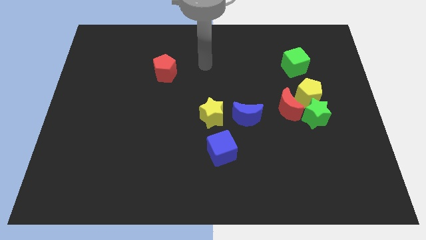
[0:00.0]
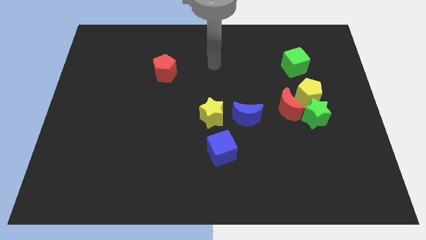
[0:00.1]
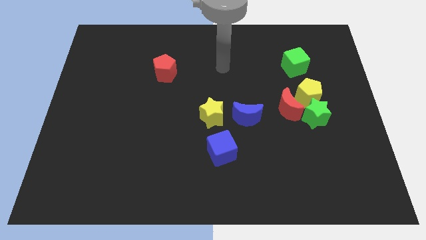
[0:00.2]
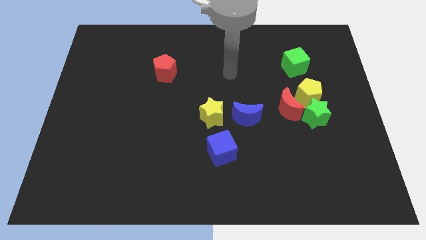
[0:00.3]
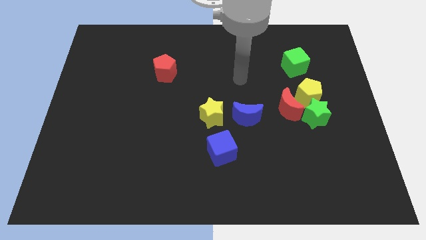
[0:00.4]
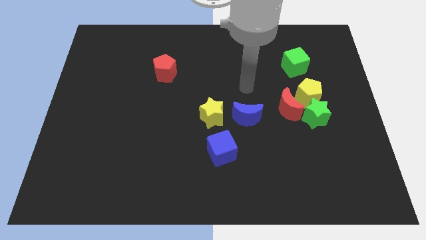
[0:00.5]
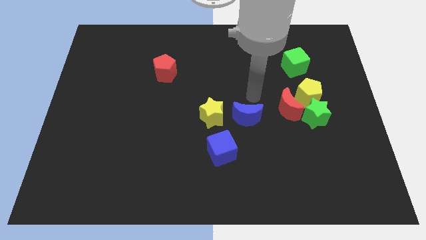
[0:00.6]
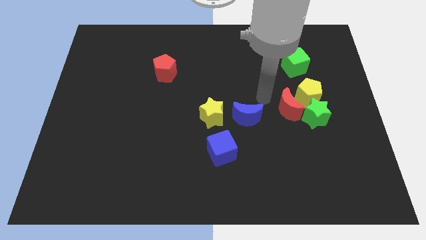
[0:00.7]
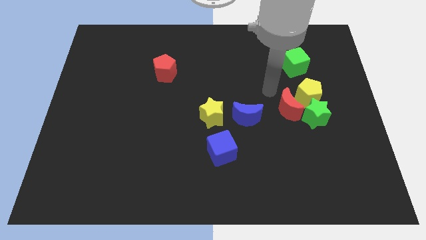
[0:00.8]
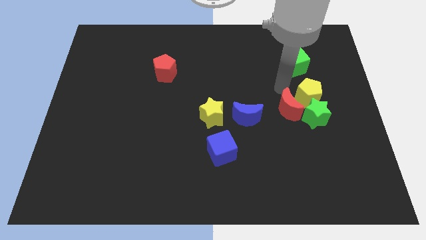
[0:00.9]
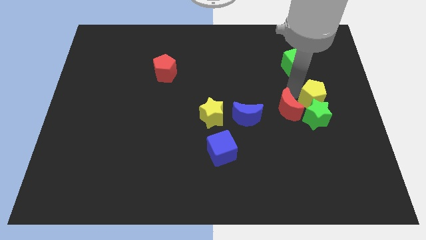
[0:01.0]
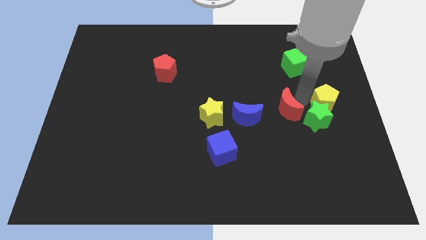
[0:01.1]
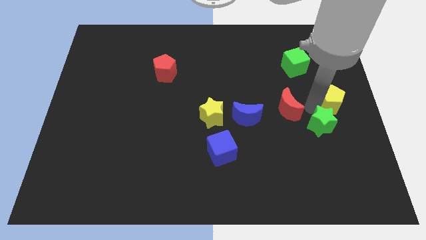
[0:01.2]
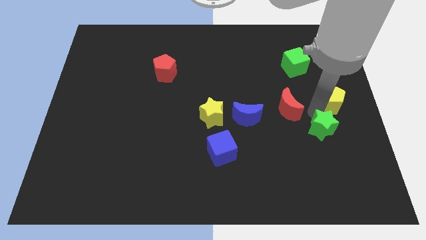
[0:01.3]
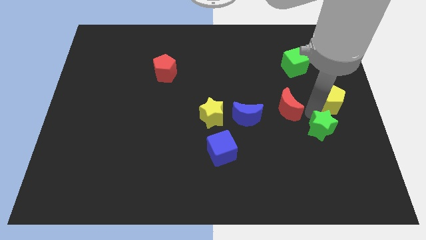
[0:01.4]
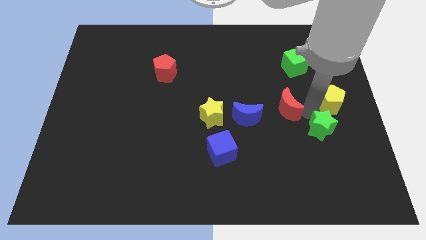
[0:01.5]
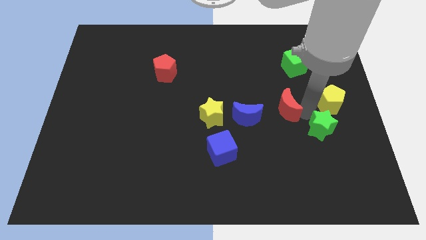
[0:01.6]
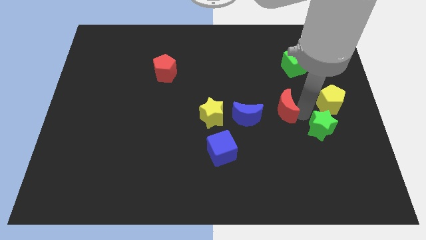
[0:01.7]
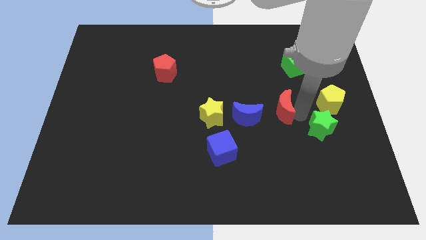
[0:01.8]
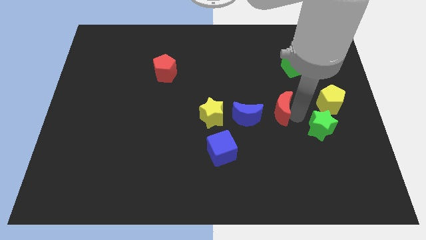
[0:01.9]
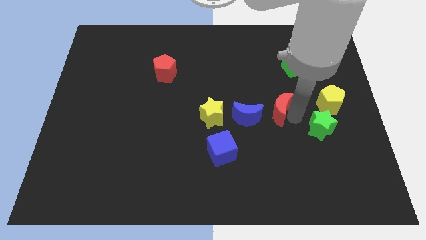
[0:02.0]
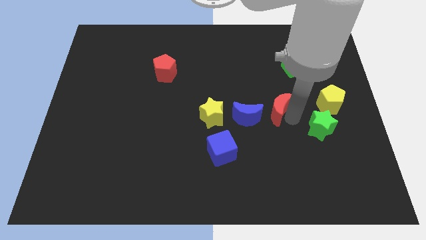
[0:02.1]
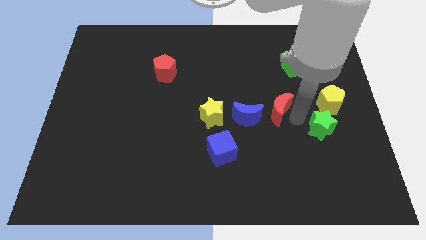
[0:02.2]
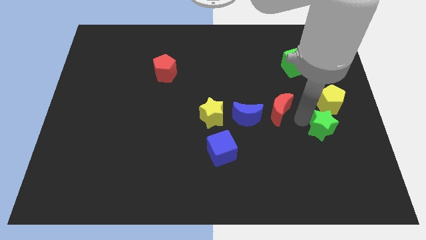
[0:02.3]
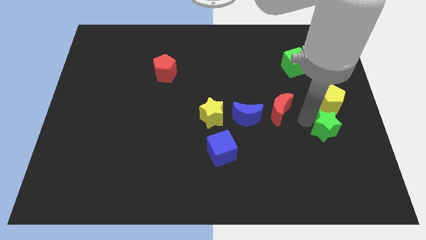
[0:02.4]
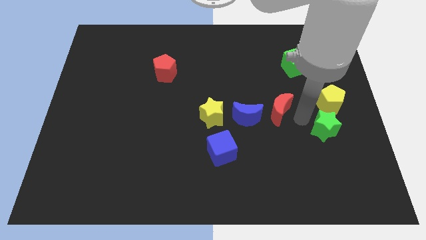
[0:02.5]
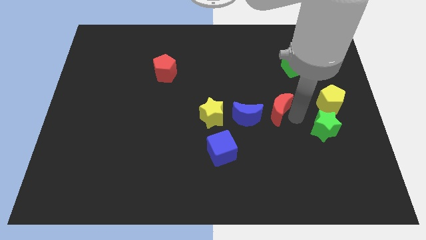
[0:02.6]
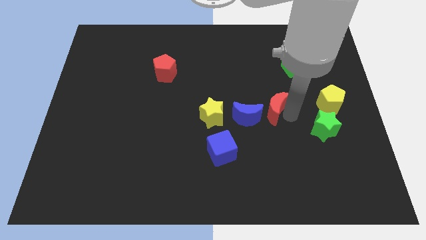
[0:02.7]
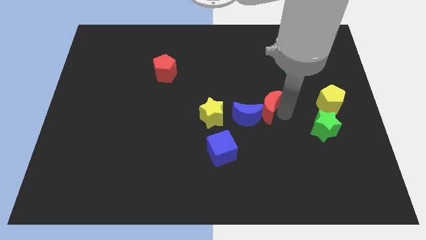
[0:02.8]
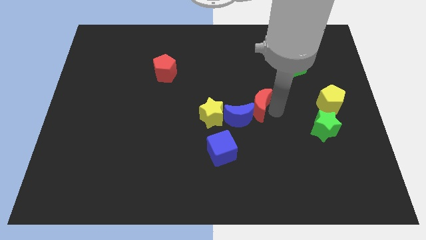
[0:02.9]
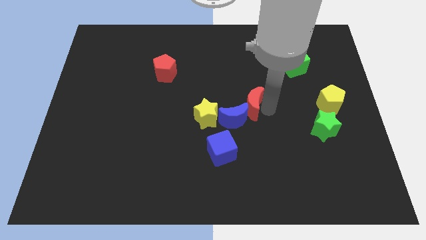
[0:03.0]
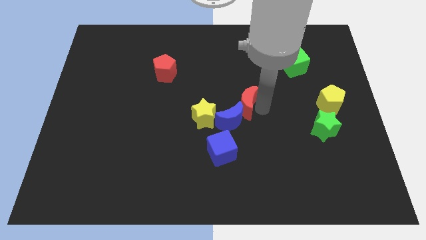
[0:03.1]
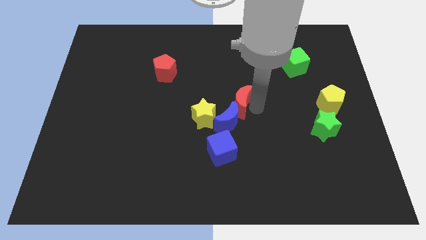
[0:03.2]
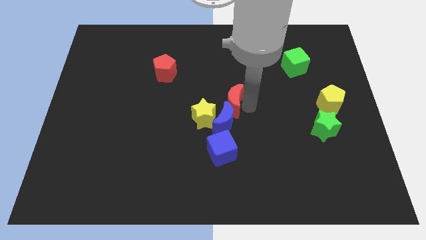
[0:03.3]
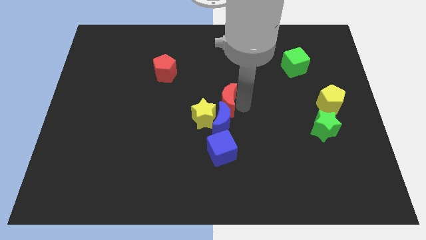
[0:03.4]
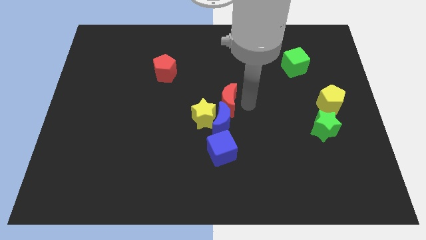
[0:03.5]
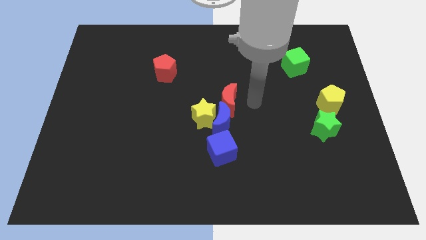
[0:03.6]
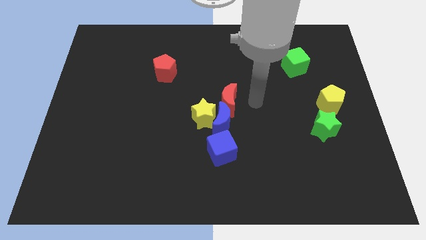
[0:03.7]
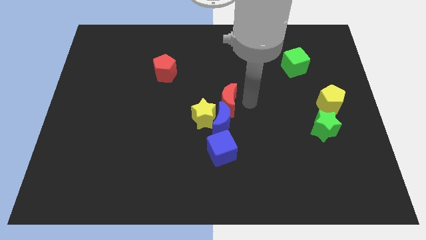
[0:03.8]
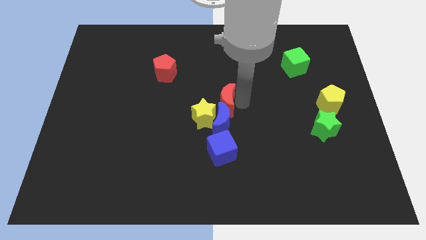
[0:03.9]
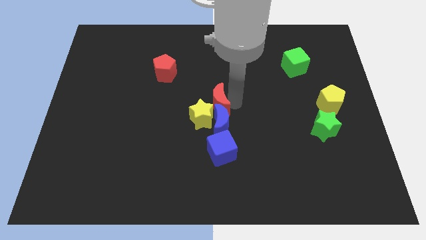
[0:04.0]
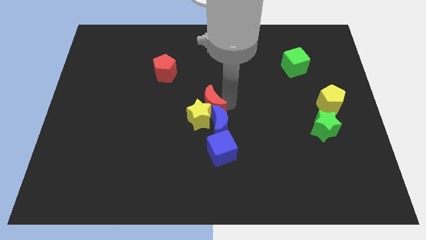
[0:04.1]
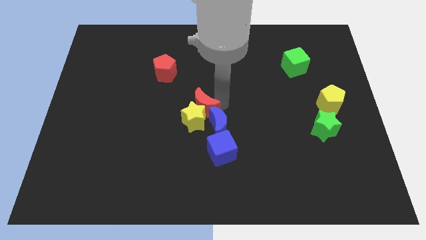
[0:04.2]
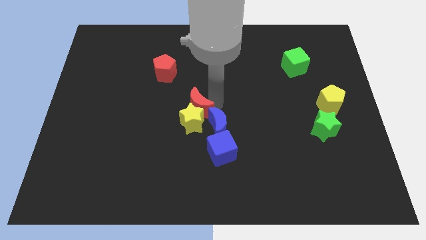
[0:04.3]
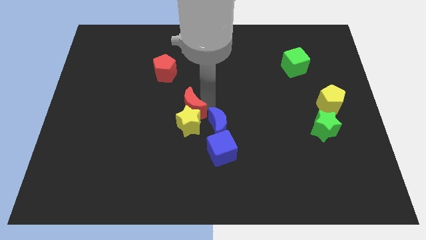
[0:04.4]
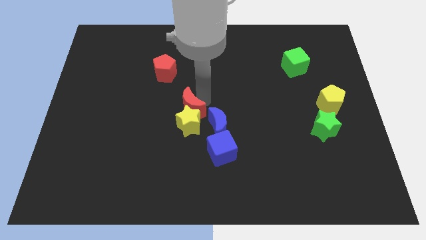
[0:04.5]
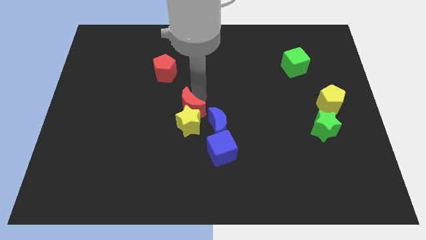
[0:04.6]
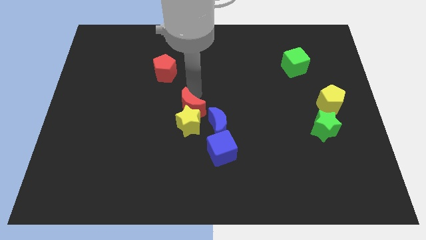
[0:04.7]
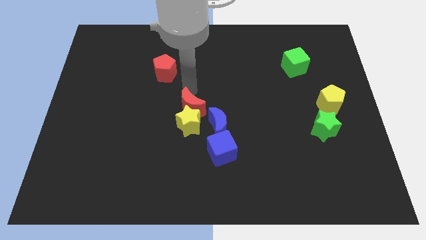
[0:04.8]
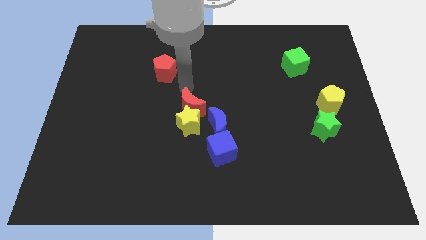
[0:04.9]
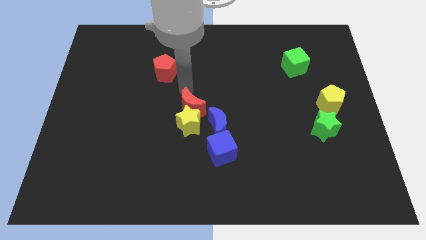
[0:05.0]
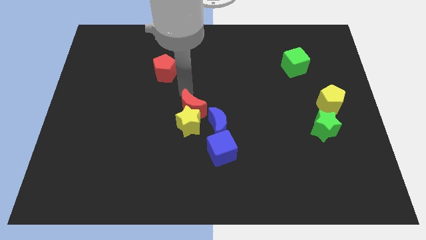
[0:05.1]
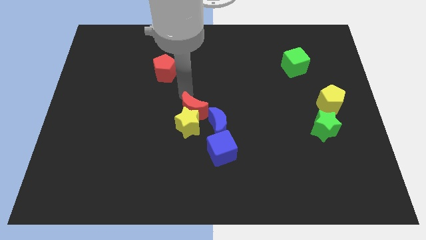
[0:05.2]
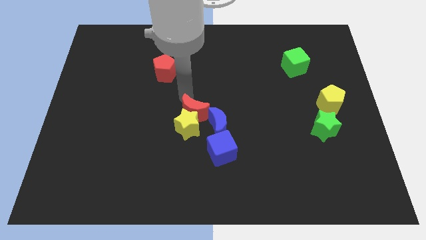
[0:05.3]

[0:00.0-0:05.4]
move the red moon to the top left side of the blue cube

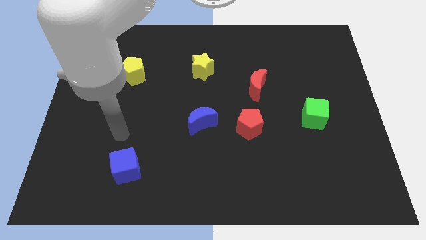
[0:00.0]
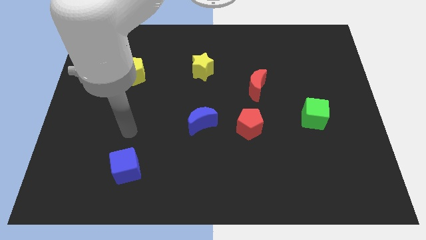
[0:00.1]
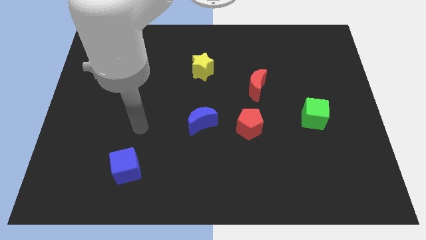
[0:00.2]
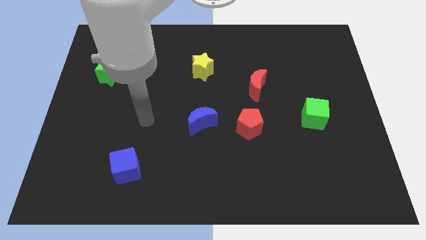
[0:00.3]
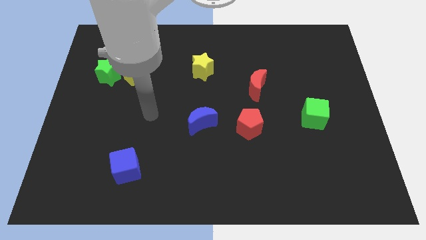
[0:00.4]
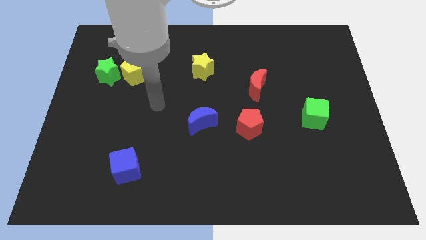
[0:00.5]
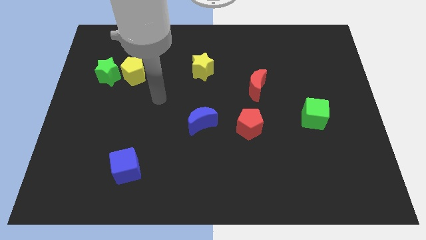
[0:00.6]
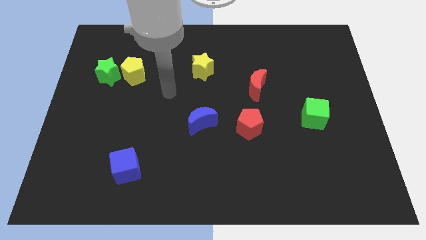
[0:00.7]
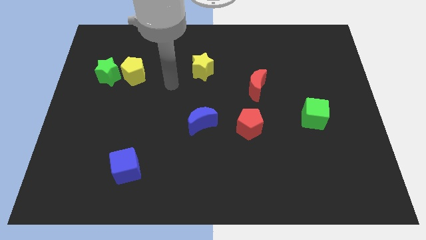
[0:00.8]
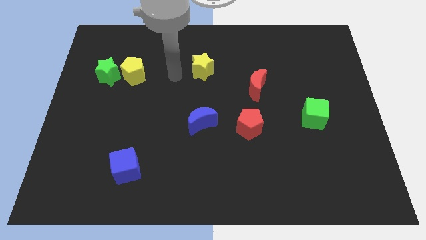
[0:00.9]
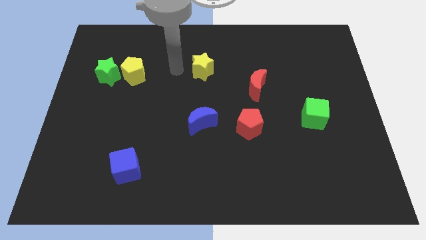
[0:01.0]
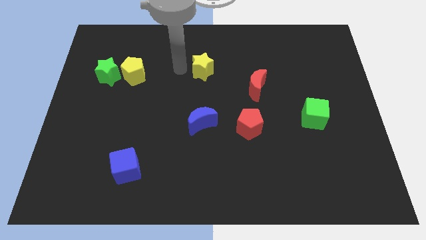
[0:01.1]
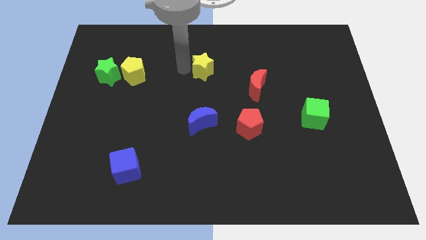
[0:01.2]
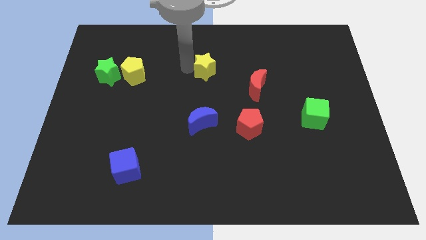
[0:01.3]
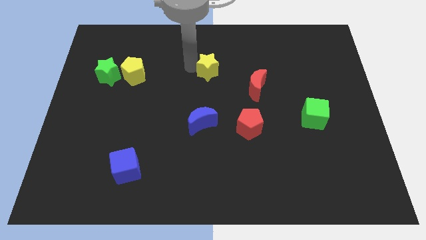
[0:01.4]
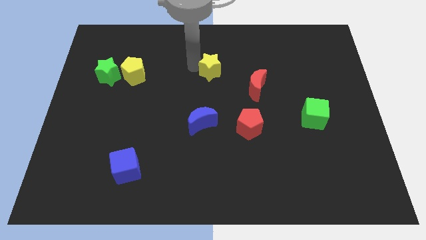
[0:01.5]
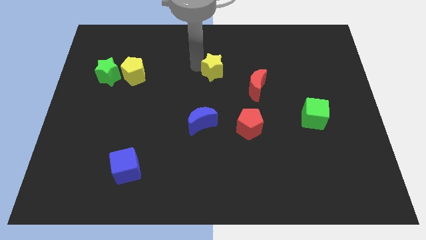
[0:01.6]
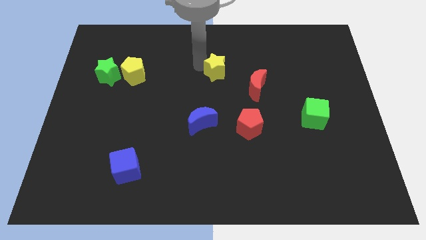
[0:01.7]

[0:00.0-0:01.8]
move the yellow star to the top left side of the red moon

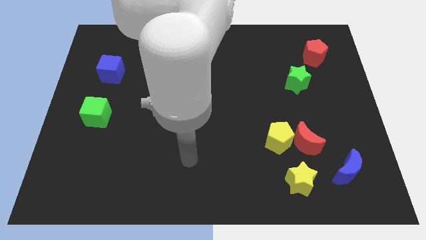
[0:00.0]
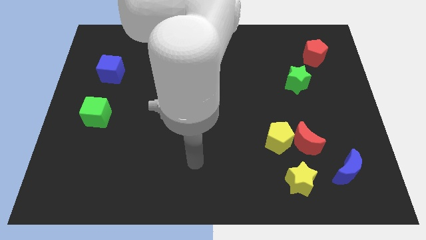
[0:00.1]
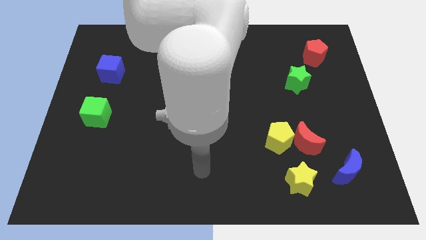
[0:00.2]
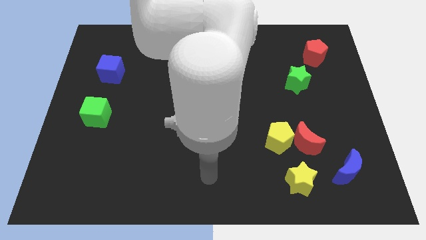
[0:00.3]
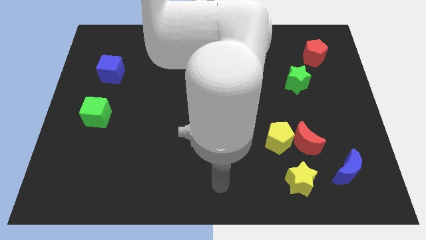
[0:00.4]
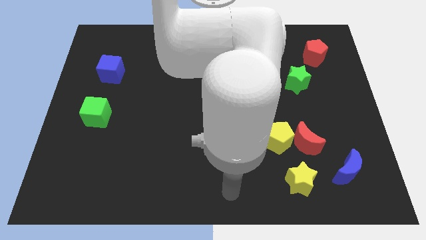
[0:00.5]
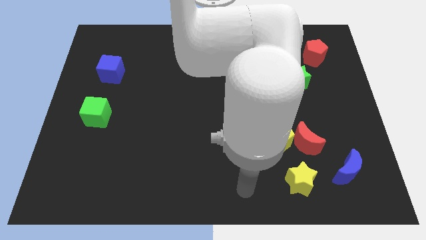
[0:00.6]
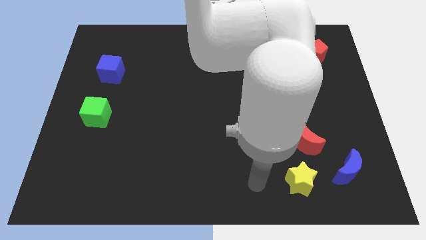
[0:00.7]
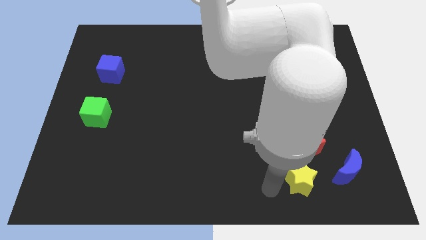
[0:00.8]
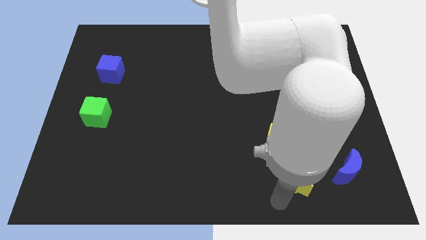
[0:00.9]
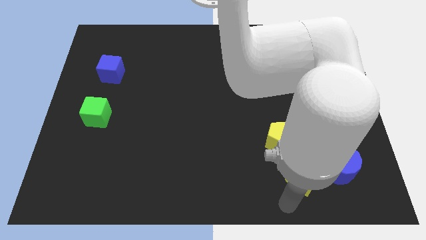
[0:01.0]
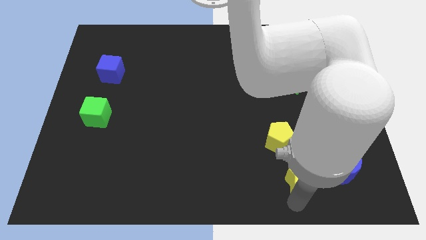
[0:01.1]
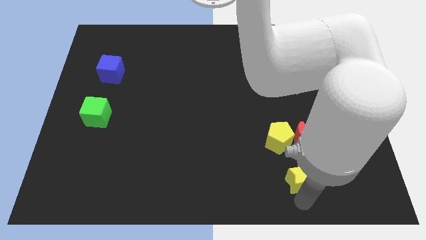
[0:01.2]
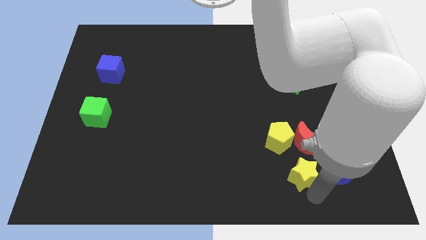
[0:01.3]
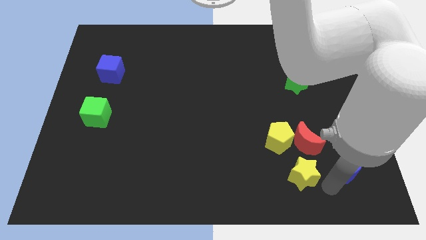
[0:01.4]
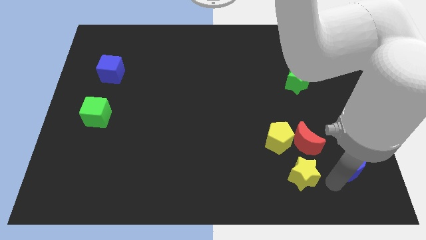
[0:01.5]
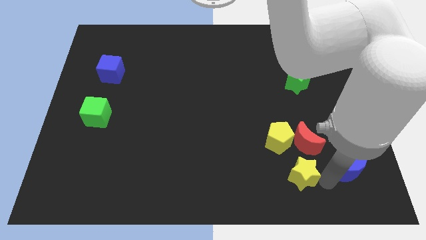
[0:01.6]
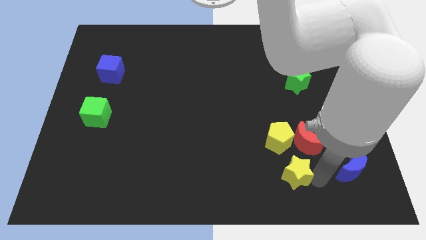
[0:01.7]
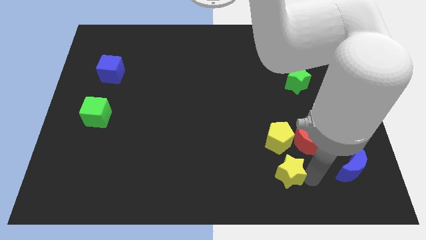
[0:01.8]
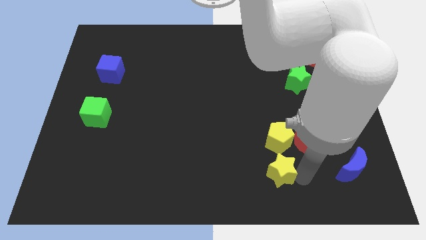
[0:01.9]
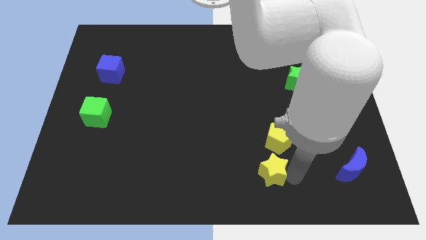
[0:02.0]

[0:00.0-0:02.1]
push the yellow star to the bottom left of the yellow pentagon
